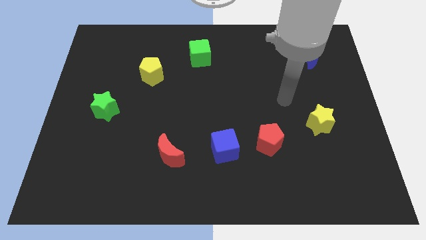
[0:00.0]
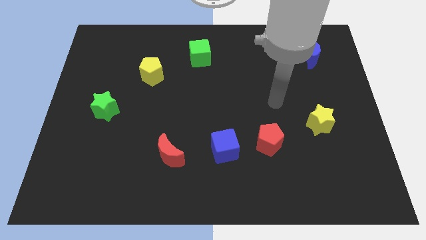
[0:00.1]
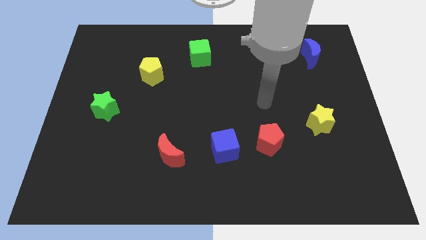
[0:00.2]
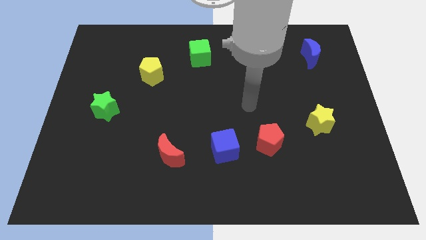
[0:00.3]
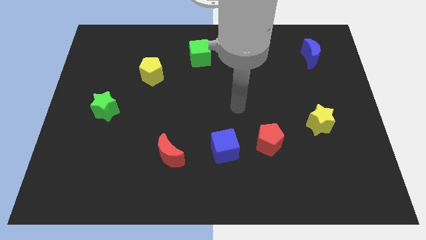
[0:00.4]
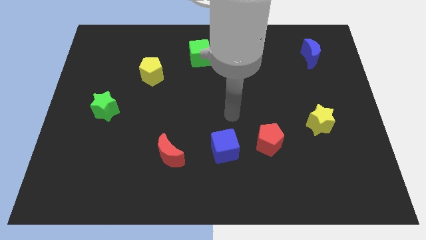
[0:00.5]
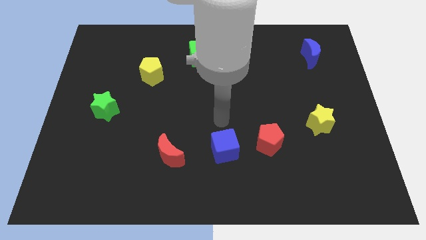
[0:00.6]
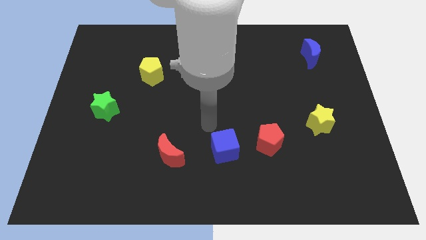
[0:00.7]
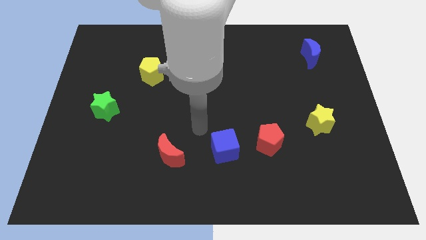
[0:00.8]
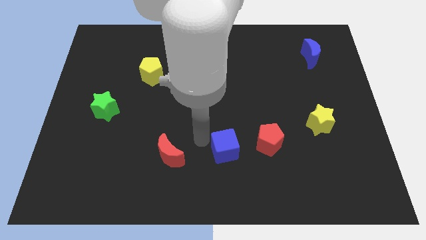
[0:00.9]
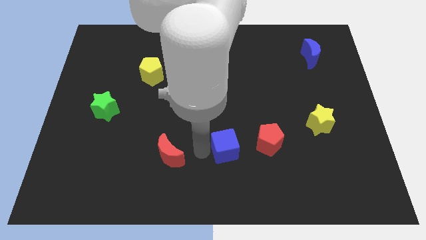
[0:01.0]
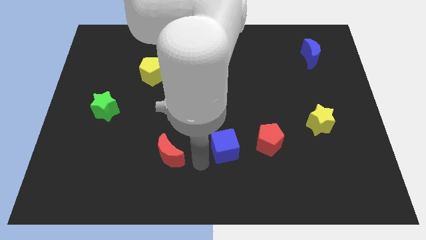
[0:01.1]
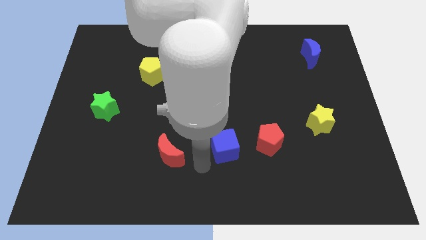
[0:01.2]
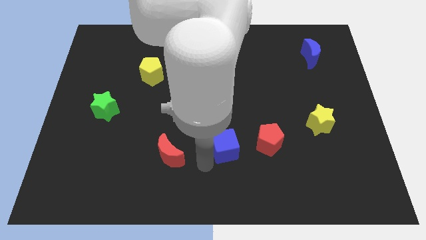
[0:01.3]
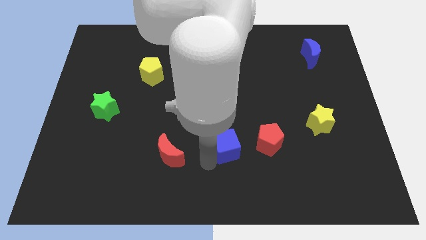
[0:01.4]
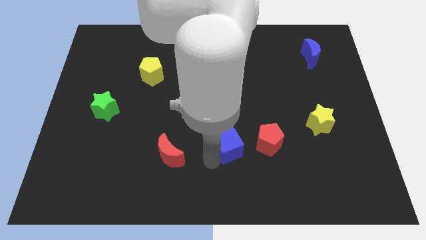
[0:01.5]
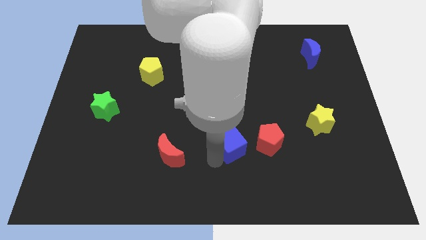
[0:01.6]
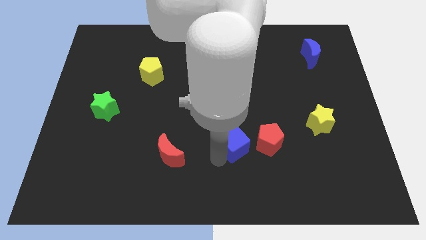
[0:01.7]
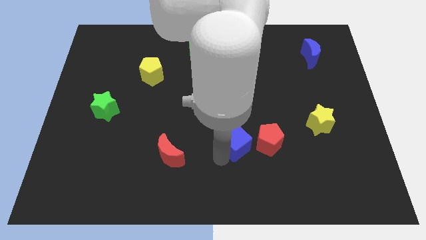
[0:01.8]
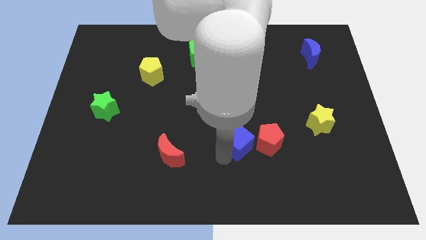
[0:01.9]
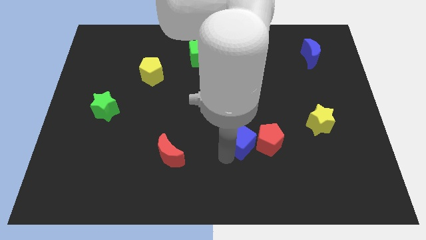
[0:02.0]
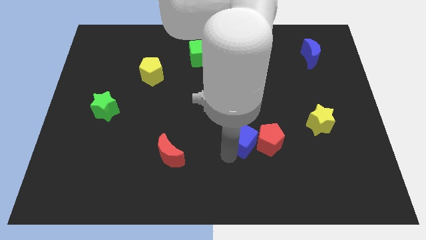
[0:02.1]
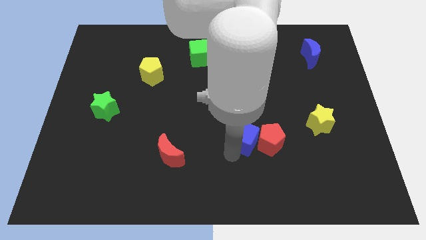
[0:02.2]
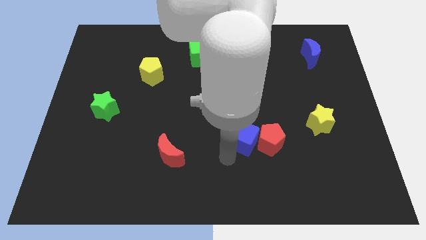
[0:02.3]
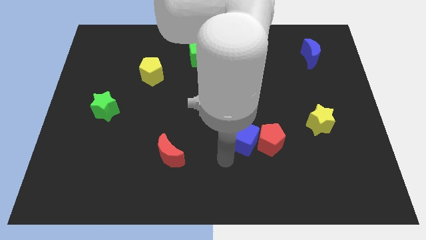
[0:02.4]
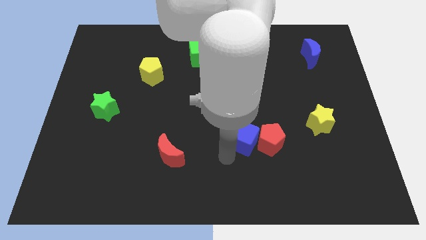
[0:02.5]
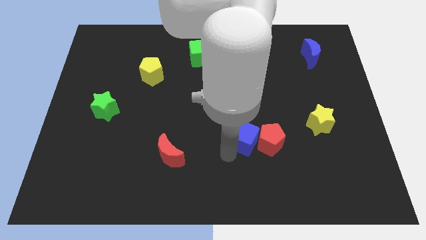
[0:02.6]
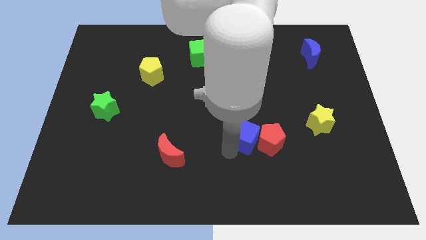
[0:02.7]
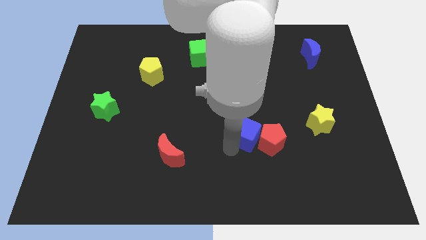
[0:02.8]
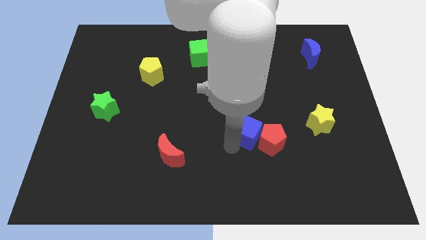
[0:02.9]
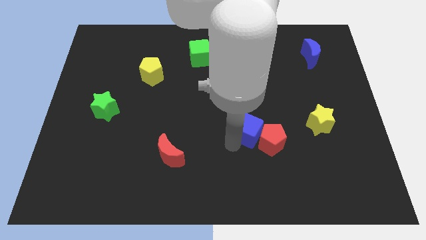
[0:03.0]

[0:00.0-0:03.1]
push the blue cube upwards and then right a bit

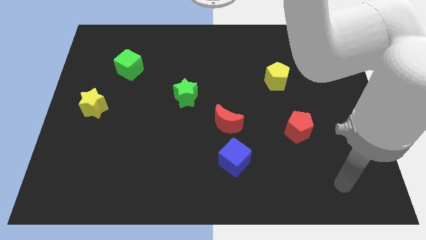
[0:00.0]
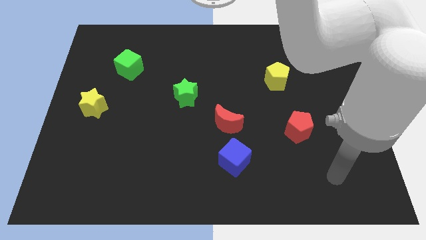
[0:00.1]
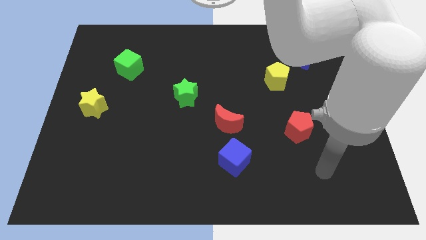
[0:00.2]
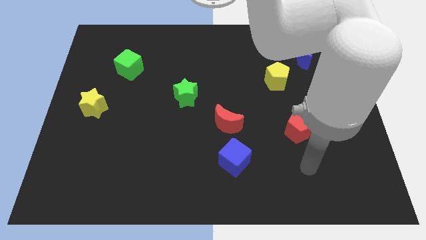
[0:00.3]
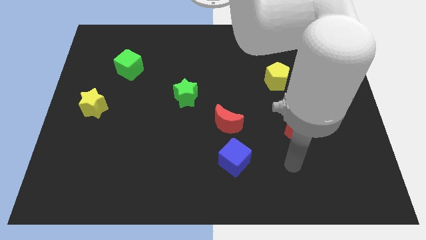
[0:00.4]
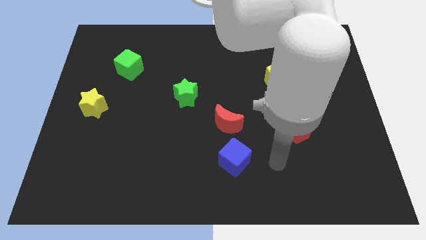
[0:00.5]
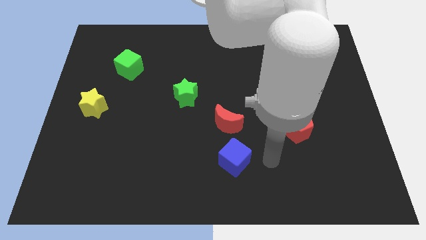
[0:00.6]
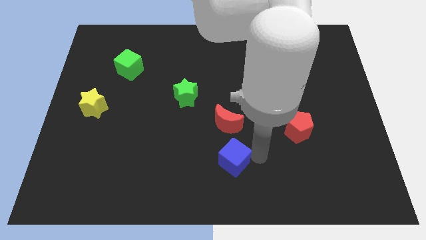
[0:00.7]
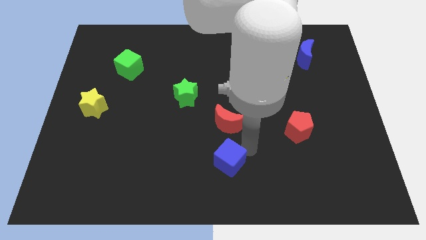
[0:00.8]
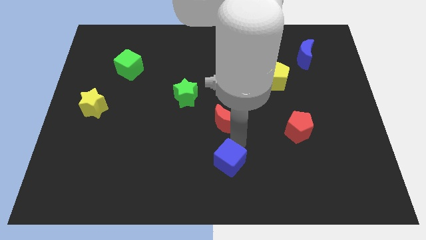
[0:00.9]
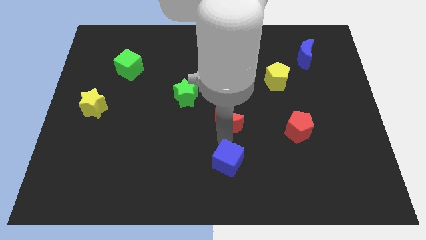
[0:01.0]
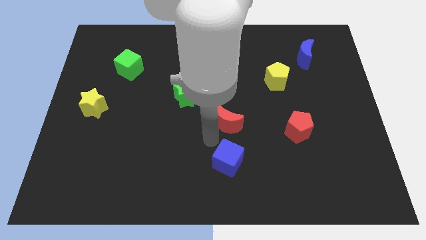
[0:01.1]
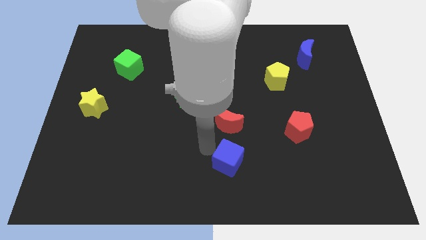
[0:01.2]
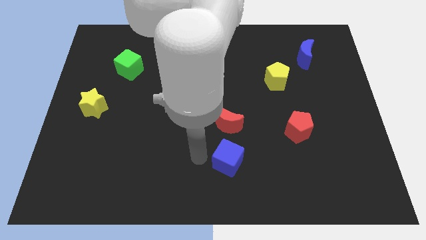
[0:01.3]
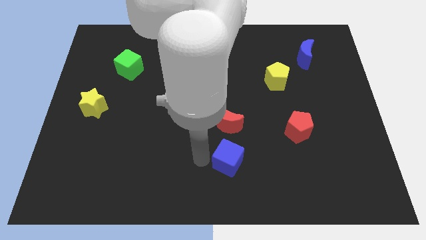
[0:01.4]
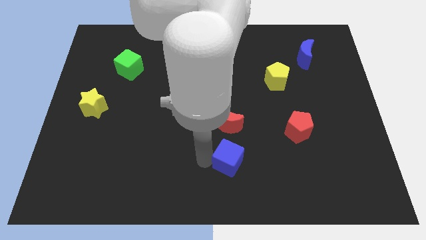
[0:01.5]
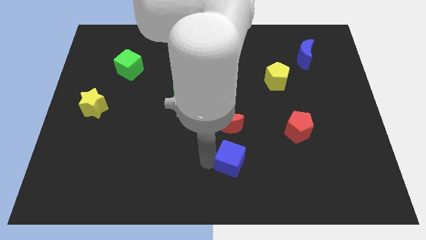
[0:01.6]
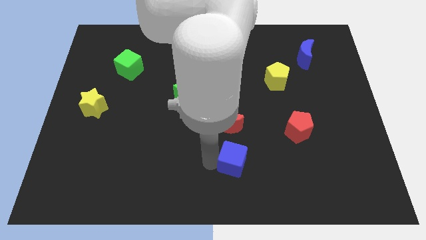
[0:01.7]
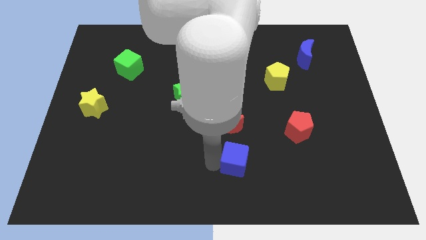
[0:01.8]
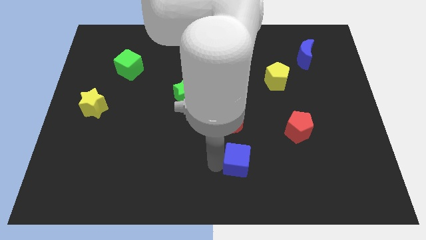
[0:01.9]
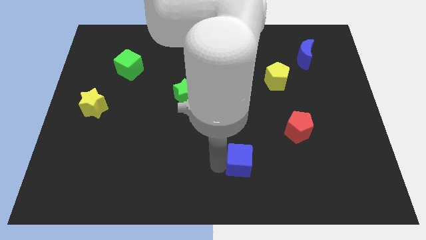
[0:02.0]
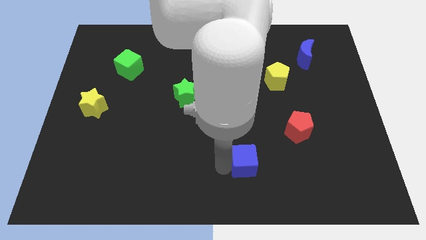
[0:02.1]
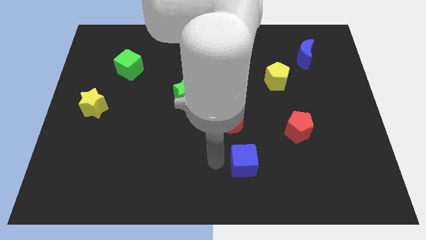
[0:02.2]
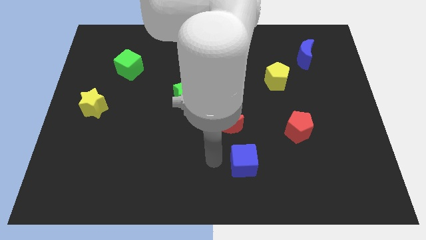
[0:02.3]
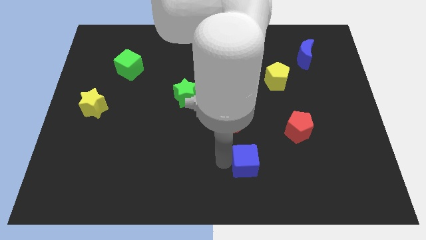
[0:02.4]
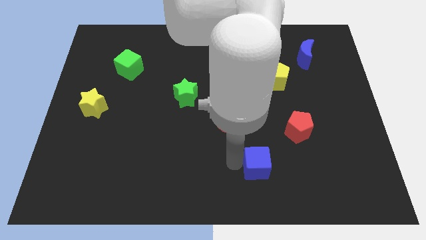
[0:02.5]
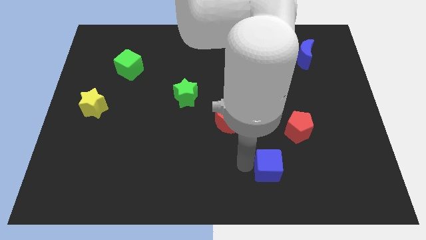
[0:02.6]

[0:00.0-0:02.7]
slightly slide the blue cube right

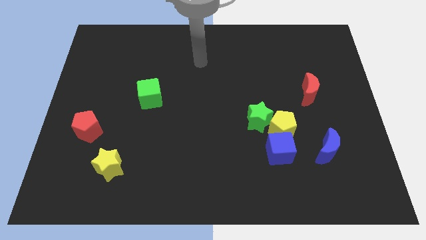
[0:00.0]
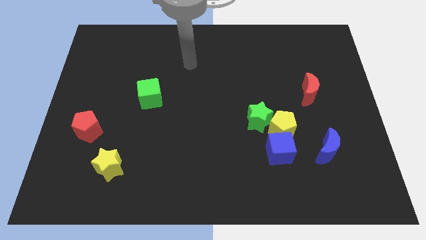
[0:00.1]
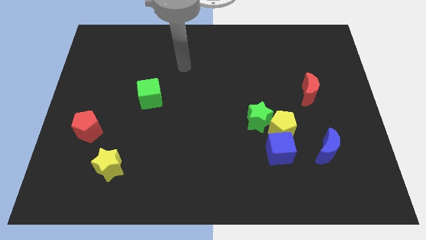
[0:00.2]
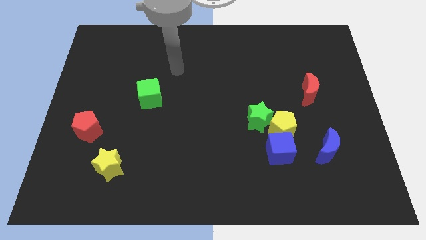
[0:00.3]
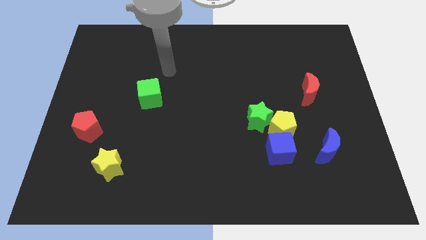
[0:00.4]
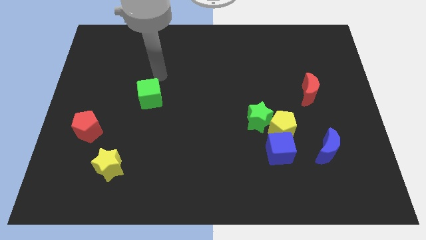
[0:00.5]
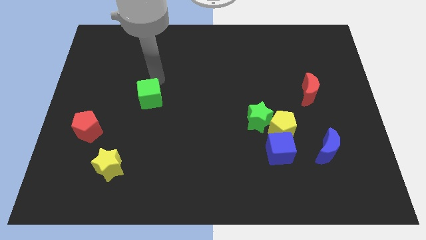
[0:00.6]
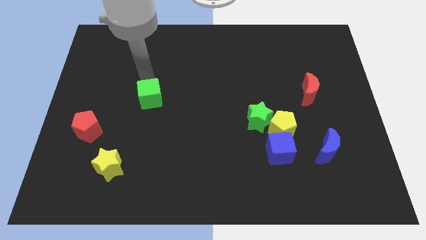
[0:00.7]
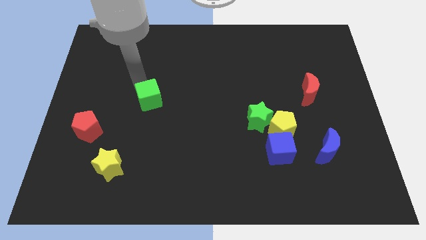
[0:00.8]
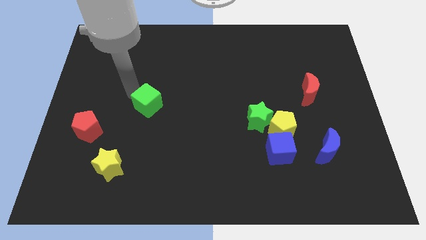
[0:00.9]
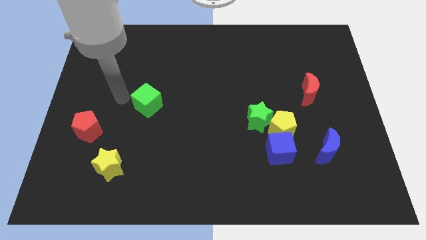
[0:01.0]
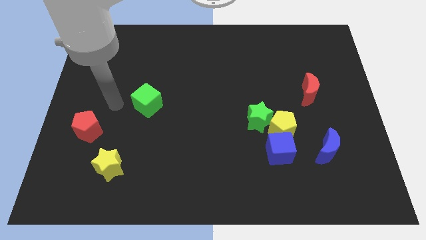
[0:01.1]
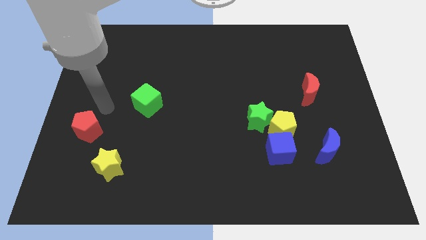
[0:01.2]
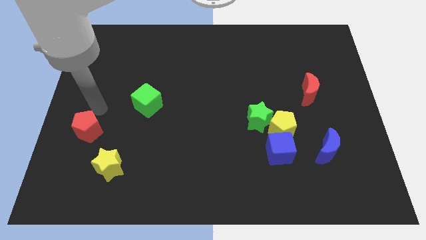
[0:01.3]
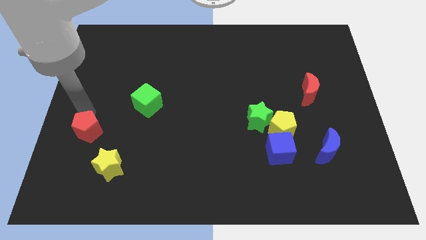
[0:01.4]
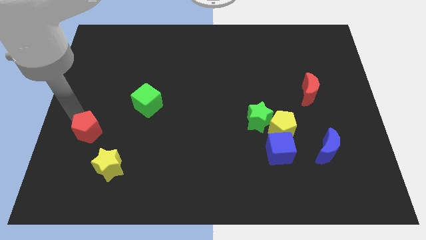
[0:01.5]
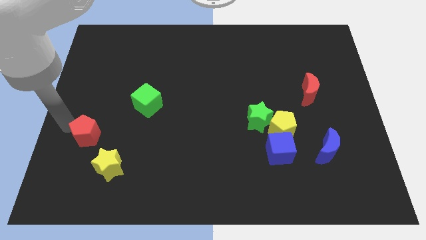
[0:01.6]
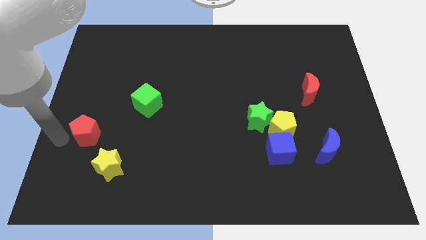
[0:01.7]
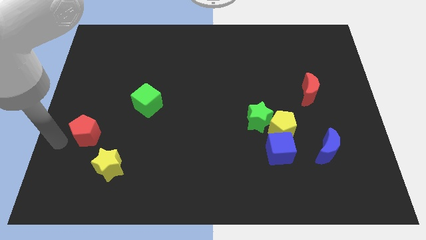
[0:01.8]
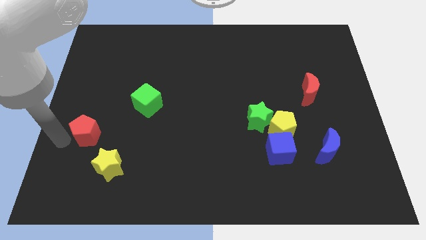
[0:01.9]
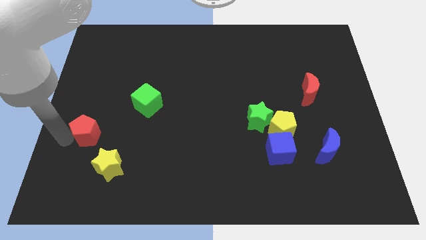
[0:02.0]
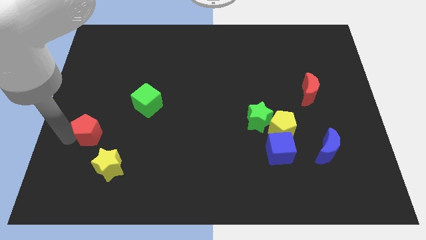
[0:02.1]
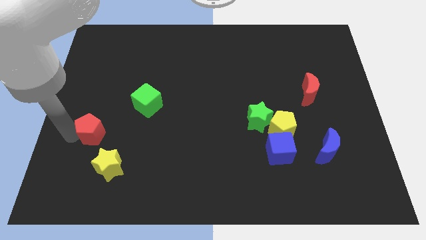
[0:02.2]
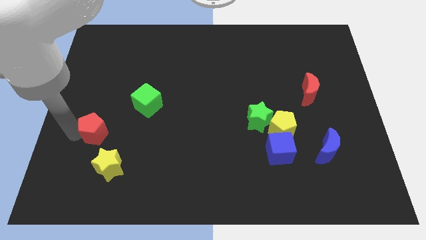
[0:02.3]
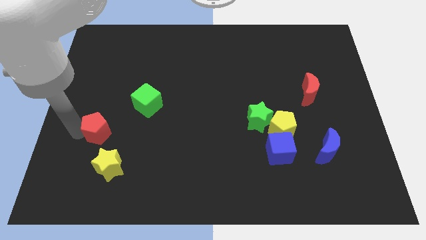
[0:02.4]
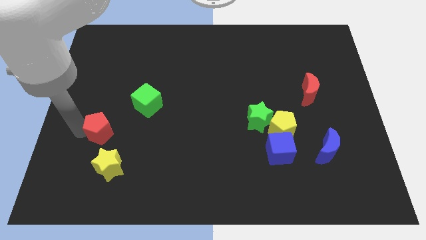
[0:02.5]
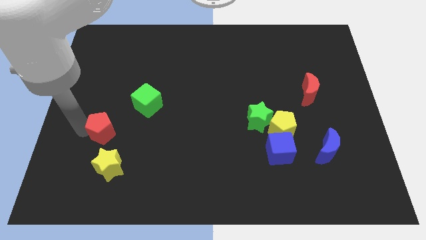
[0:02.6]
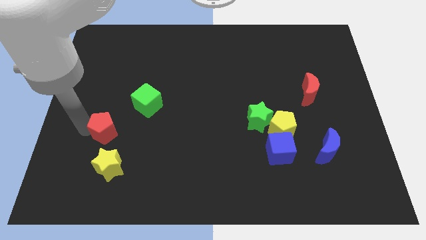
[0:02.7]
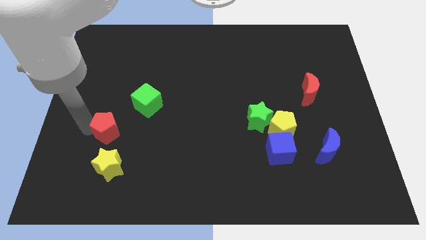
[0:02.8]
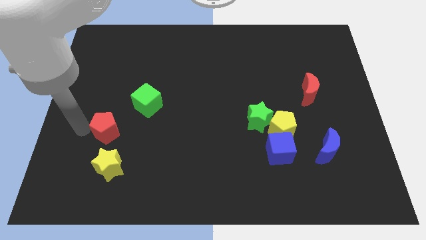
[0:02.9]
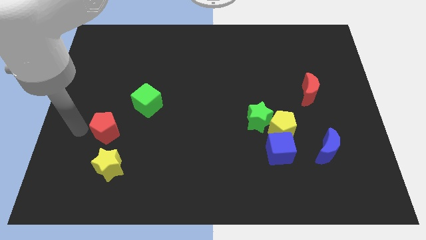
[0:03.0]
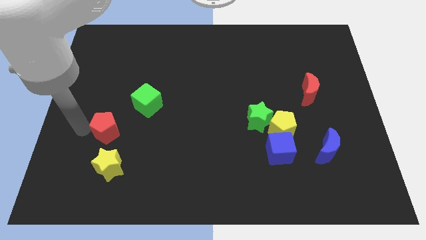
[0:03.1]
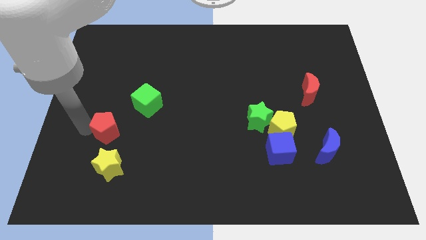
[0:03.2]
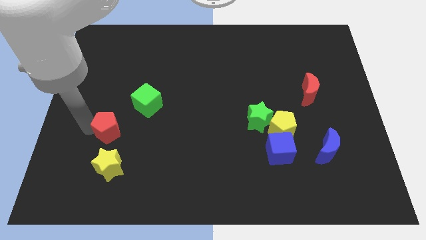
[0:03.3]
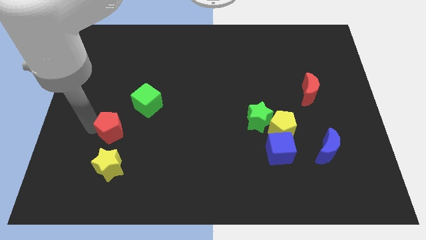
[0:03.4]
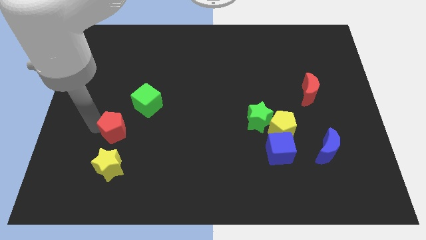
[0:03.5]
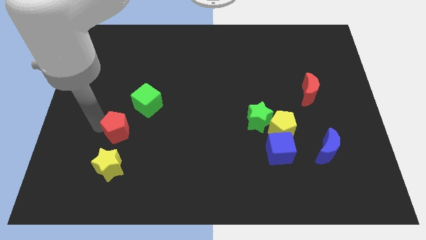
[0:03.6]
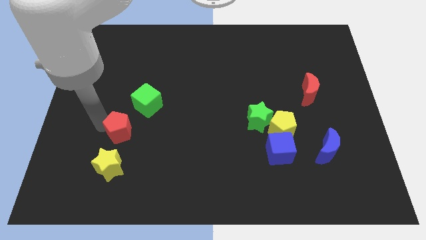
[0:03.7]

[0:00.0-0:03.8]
push the red pentagon a bit right
